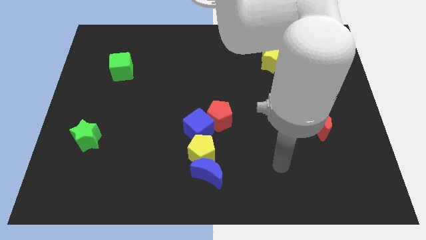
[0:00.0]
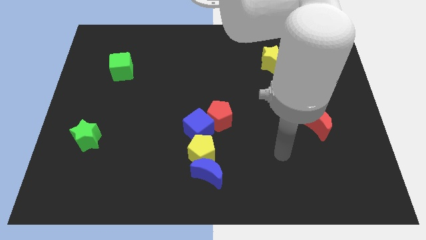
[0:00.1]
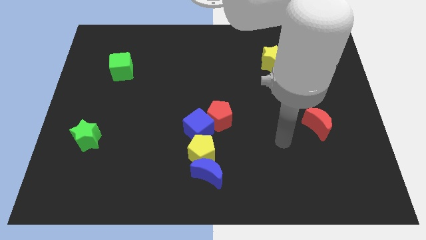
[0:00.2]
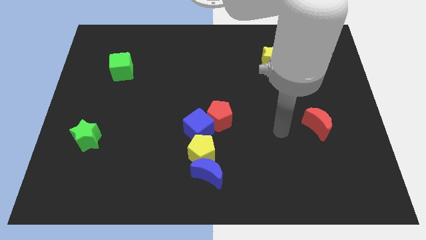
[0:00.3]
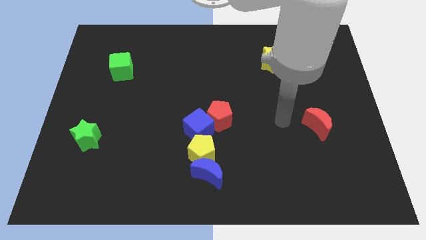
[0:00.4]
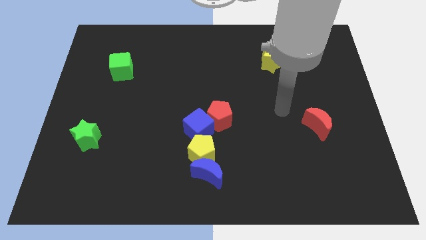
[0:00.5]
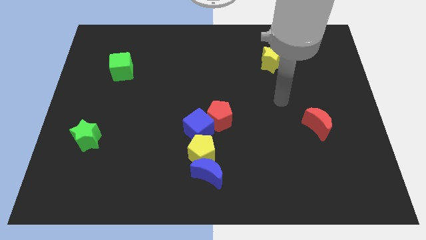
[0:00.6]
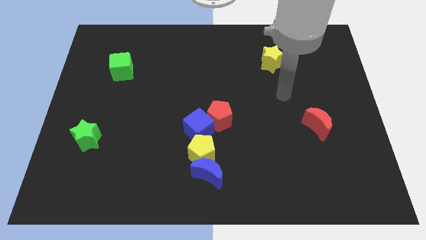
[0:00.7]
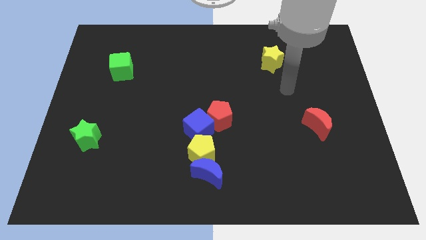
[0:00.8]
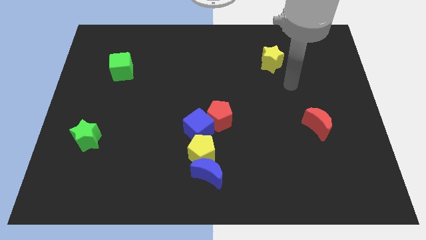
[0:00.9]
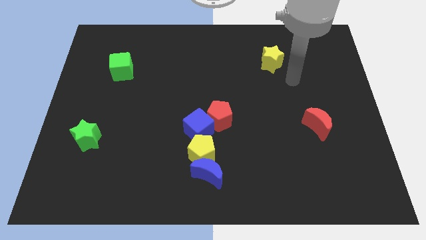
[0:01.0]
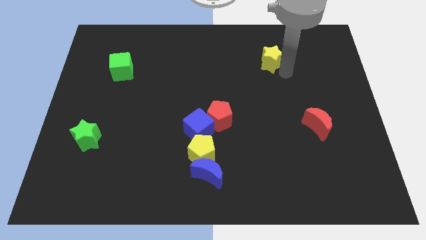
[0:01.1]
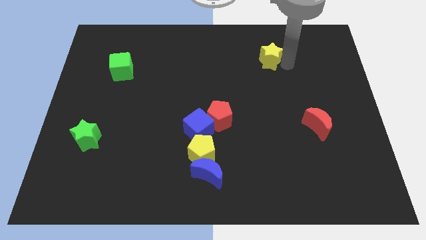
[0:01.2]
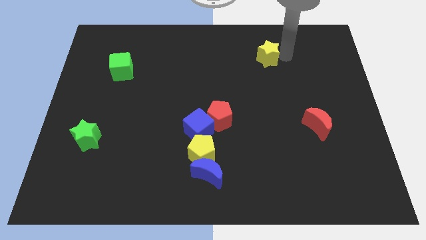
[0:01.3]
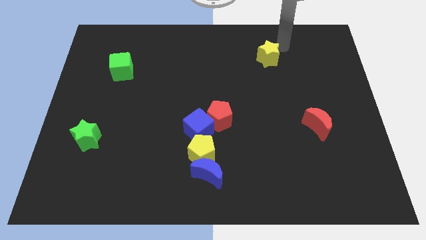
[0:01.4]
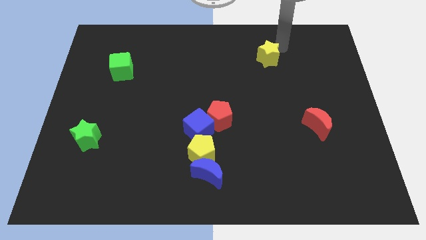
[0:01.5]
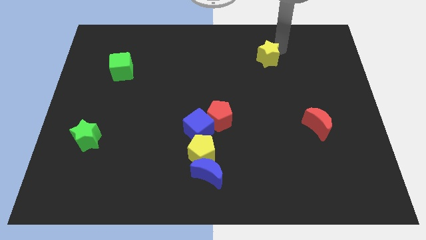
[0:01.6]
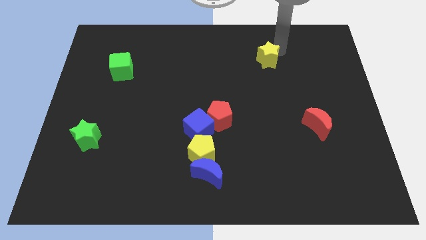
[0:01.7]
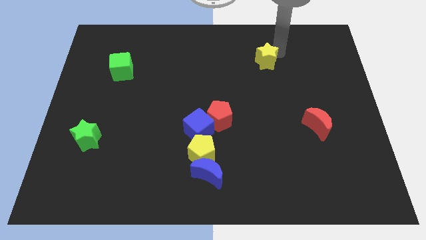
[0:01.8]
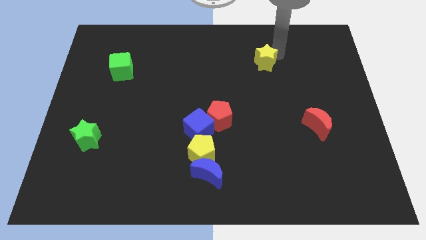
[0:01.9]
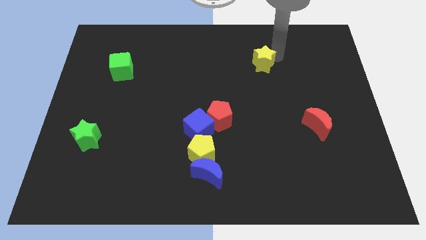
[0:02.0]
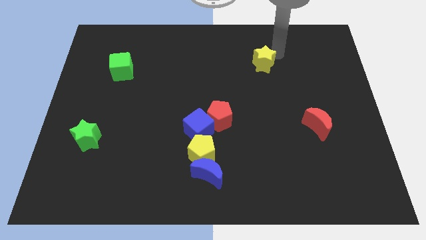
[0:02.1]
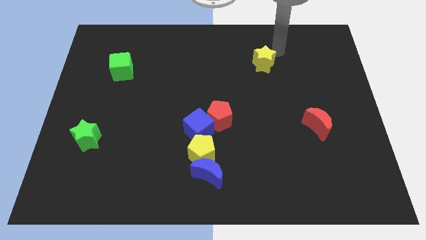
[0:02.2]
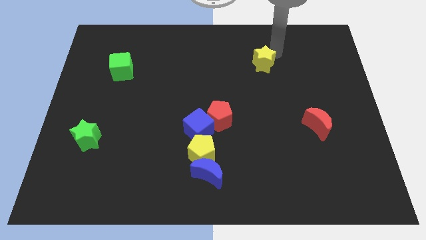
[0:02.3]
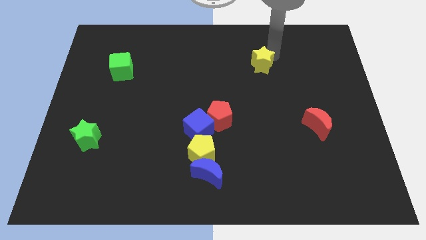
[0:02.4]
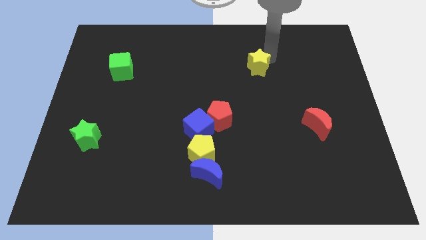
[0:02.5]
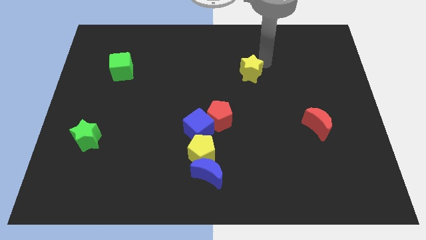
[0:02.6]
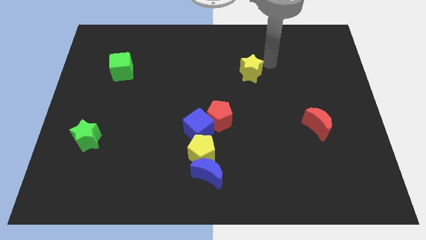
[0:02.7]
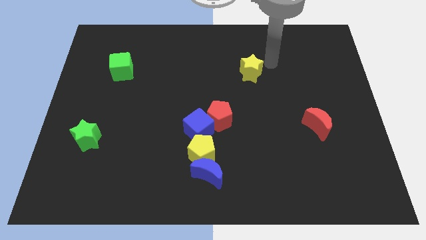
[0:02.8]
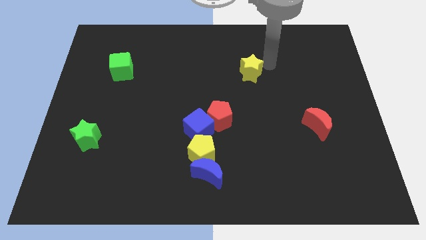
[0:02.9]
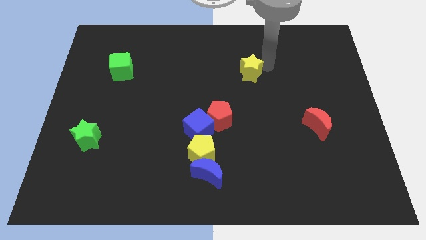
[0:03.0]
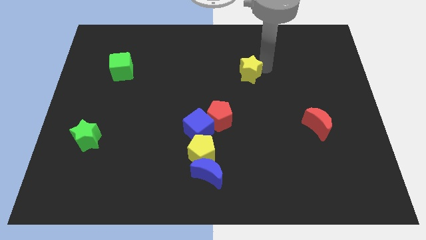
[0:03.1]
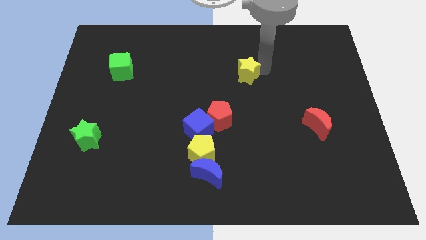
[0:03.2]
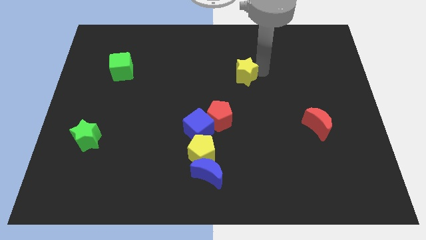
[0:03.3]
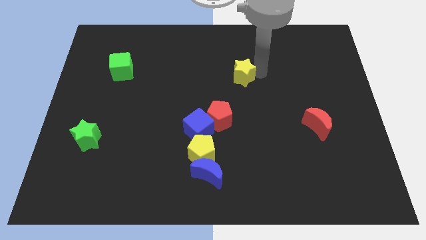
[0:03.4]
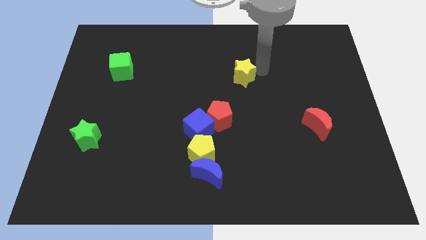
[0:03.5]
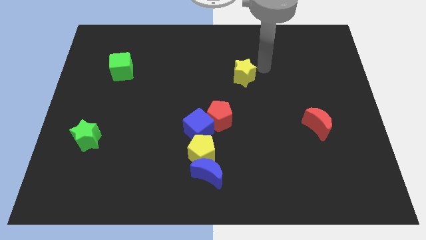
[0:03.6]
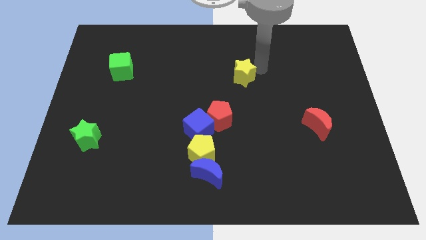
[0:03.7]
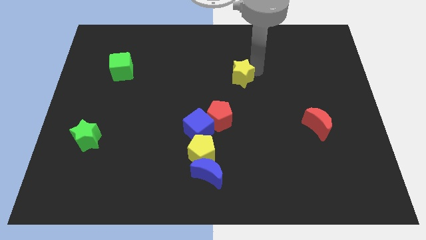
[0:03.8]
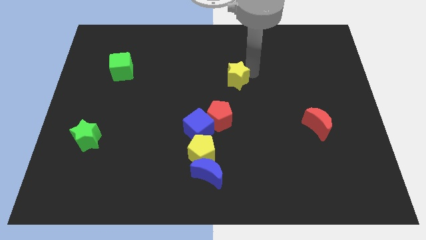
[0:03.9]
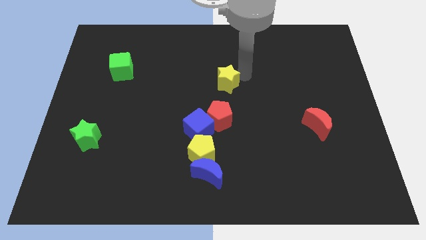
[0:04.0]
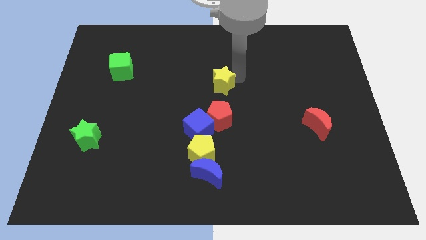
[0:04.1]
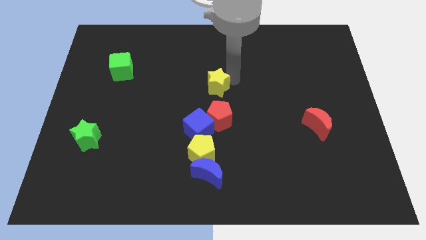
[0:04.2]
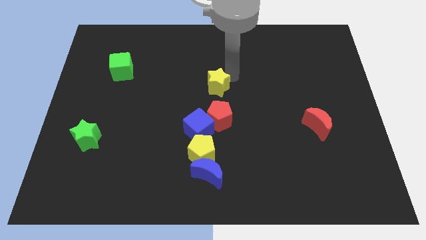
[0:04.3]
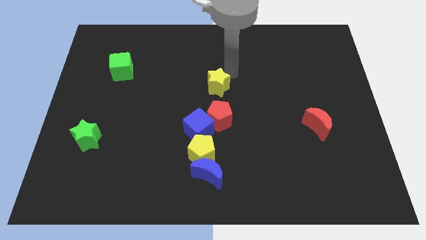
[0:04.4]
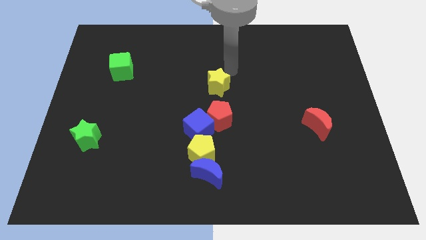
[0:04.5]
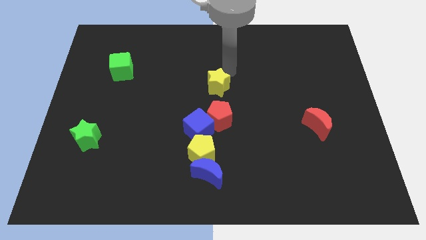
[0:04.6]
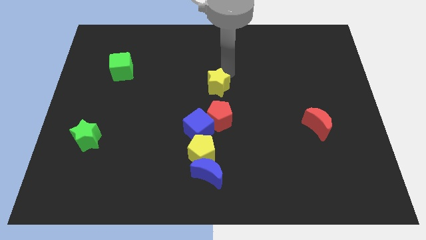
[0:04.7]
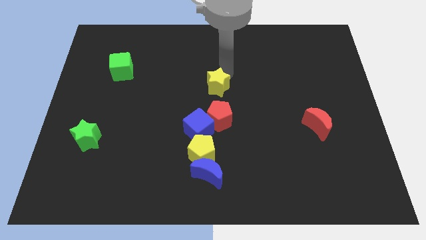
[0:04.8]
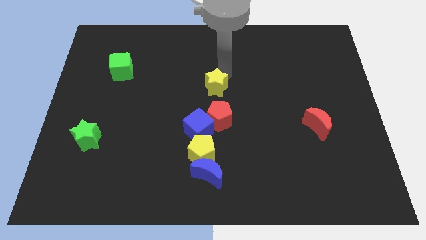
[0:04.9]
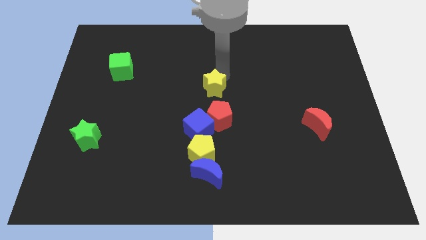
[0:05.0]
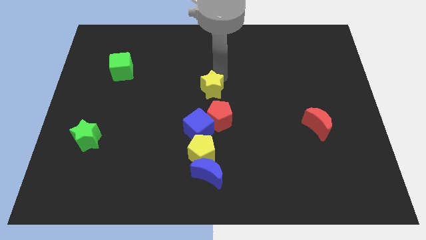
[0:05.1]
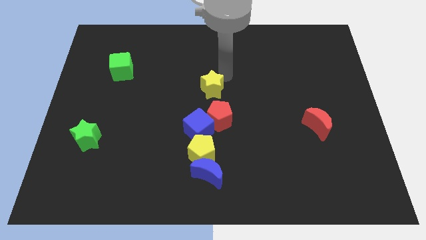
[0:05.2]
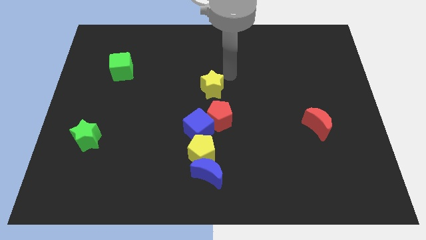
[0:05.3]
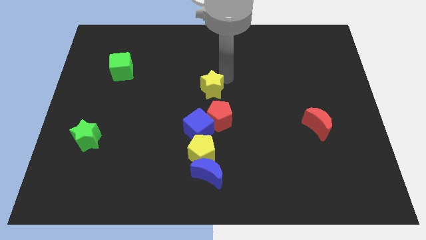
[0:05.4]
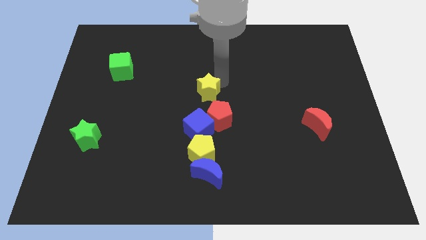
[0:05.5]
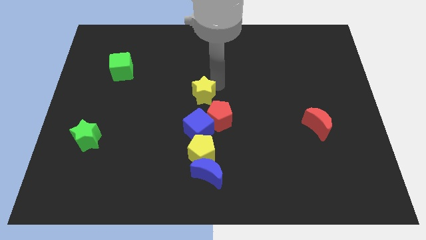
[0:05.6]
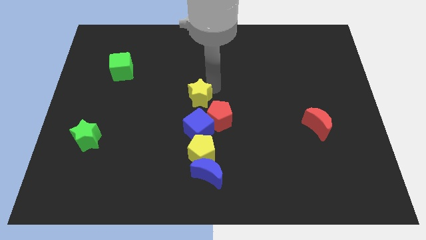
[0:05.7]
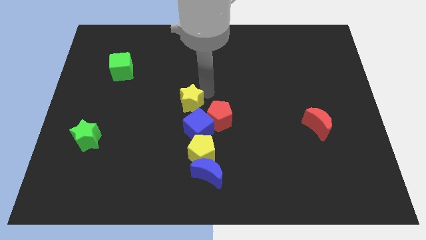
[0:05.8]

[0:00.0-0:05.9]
move the yellow star left of the red pentagon

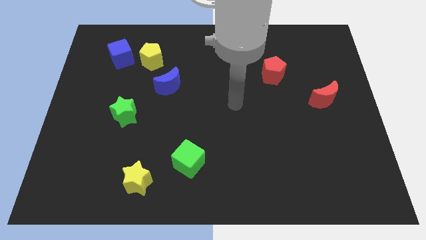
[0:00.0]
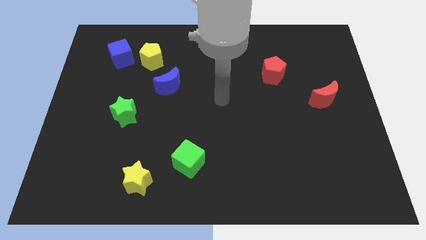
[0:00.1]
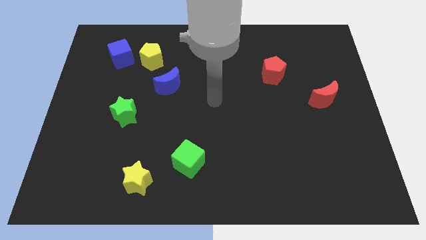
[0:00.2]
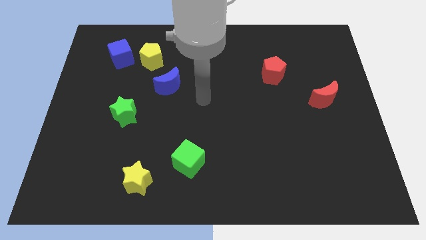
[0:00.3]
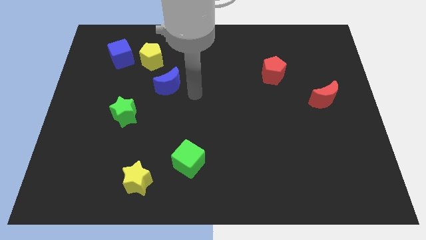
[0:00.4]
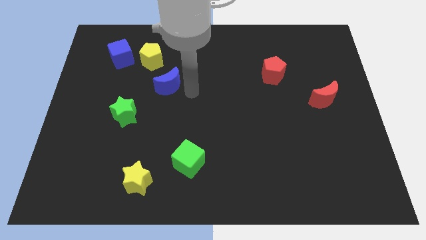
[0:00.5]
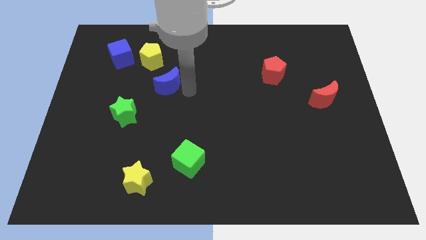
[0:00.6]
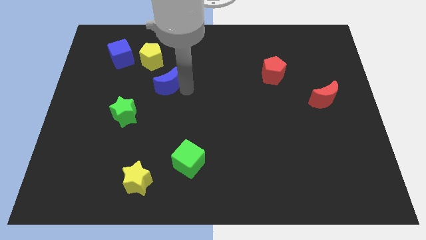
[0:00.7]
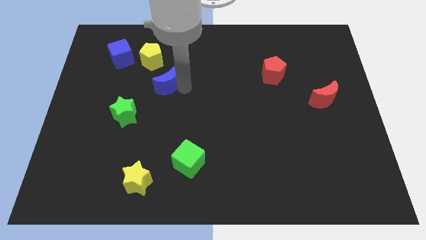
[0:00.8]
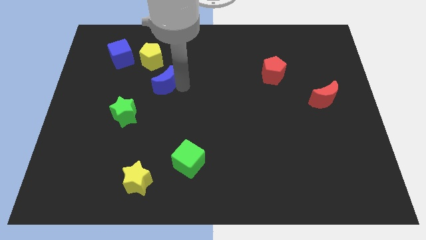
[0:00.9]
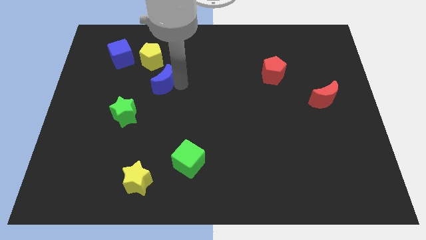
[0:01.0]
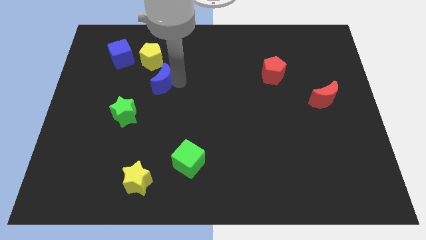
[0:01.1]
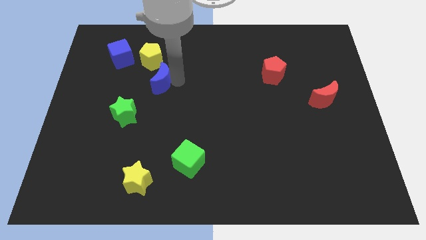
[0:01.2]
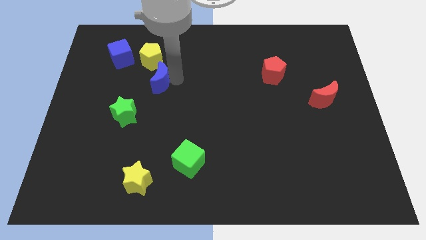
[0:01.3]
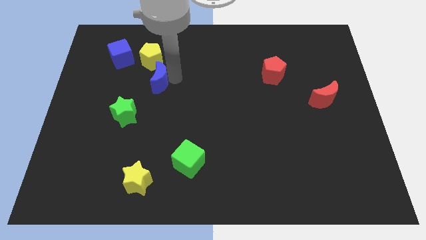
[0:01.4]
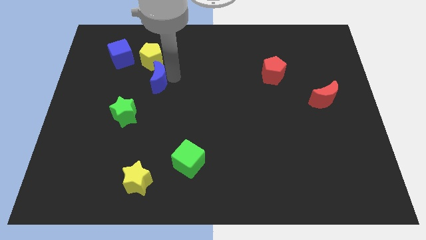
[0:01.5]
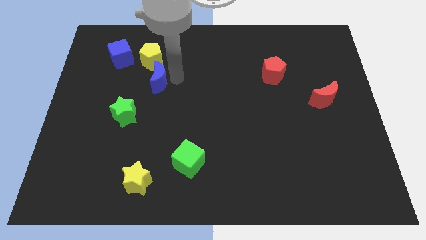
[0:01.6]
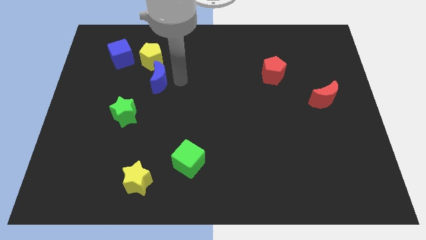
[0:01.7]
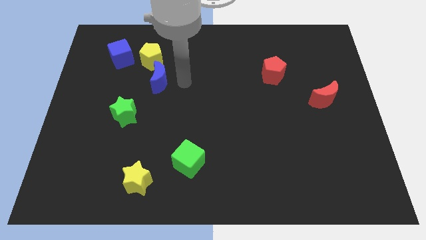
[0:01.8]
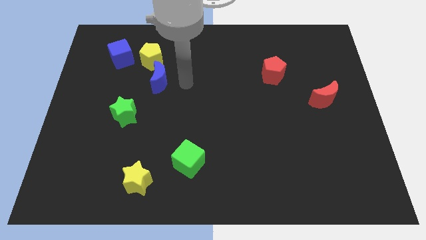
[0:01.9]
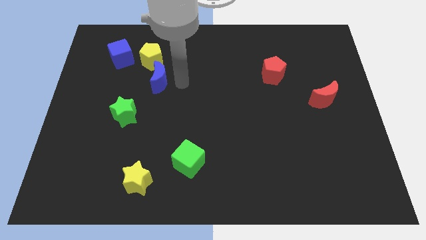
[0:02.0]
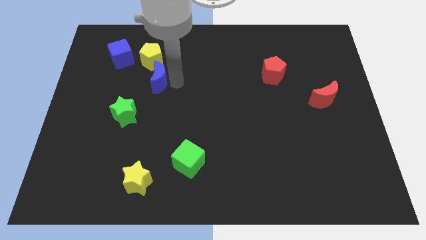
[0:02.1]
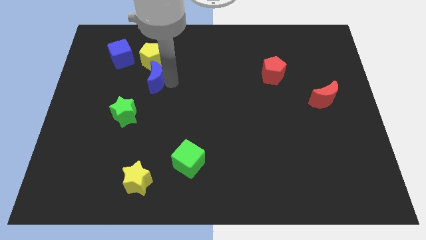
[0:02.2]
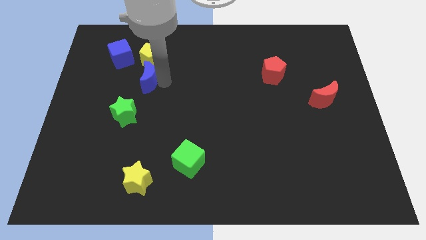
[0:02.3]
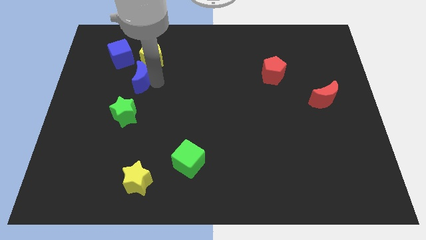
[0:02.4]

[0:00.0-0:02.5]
put the blue moon to the bottom left of the yellow pentagon
